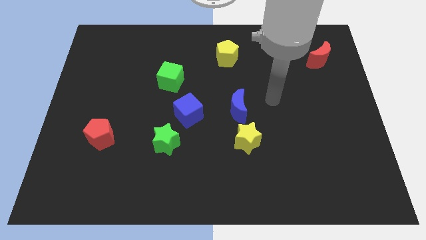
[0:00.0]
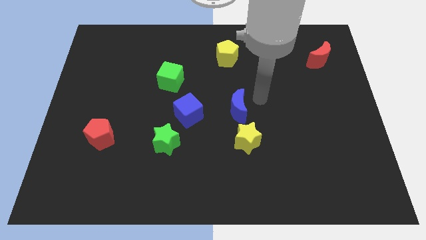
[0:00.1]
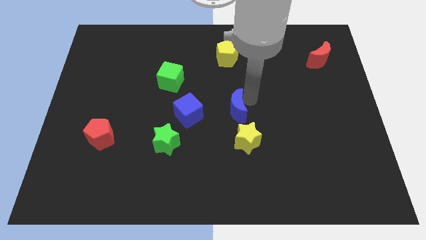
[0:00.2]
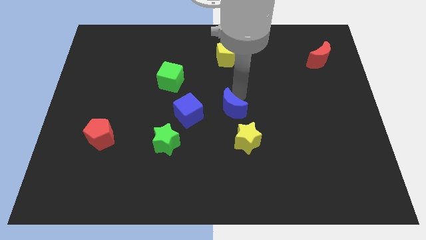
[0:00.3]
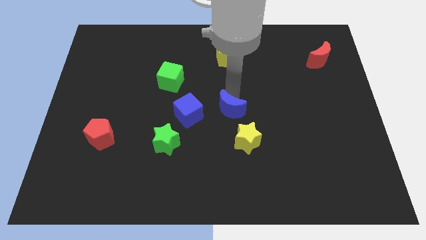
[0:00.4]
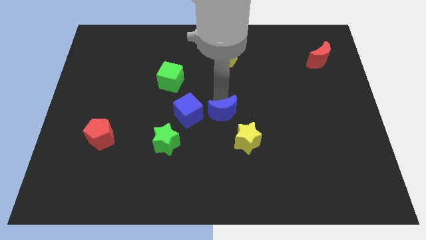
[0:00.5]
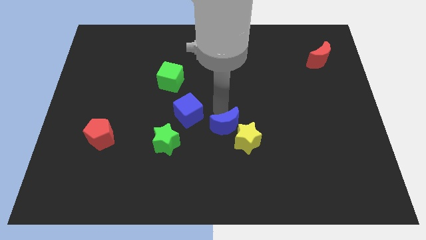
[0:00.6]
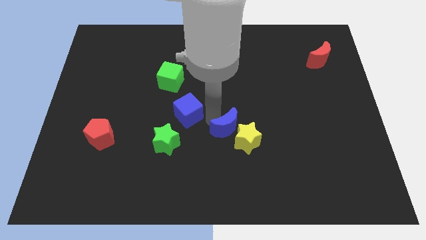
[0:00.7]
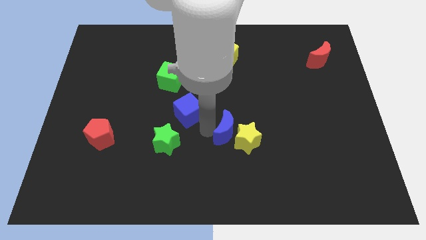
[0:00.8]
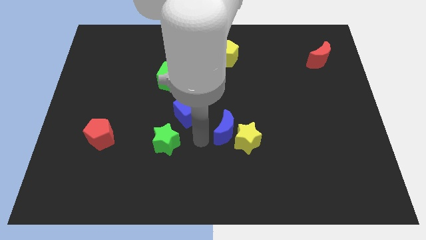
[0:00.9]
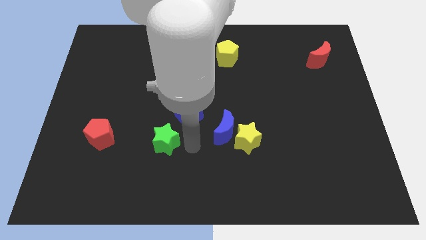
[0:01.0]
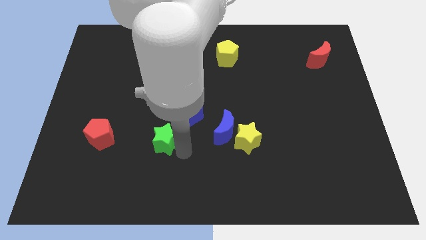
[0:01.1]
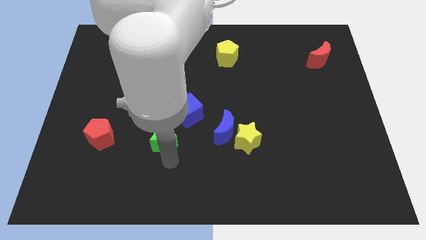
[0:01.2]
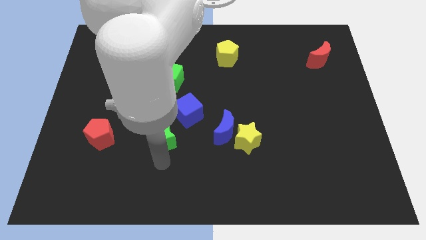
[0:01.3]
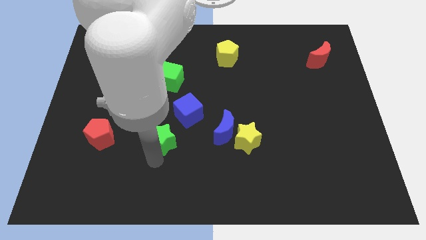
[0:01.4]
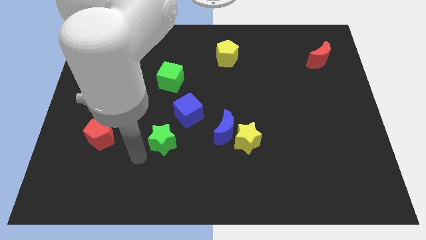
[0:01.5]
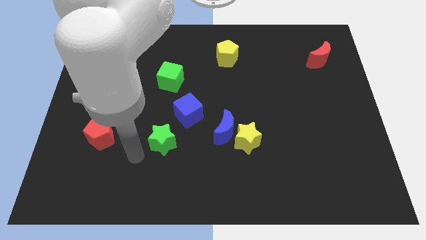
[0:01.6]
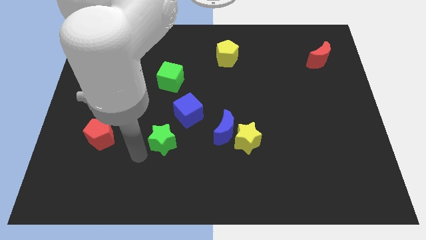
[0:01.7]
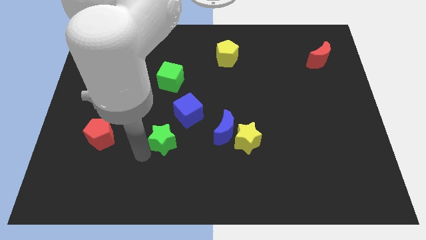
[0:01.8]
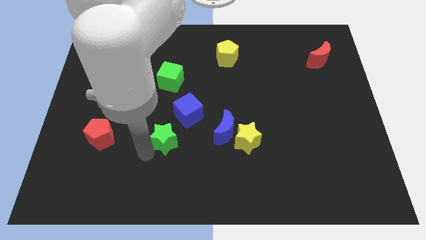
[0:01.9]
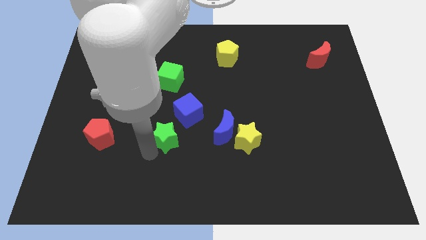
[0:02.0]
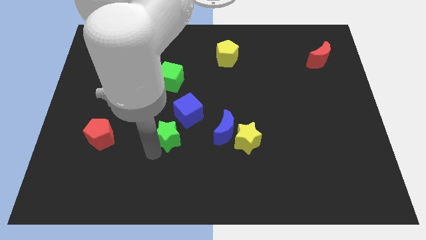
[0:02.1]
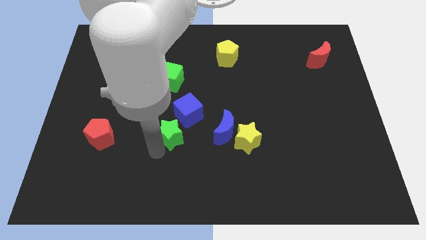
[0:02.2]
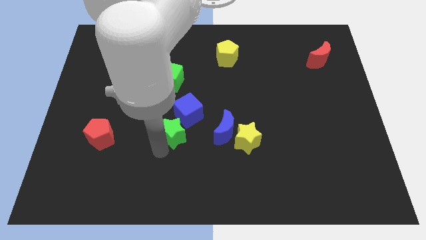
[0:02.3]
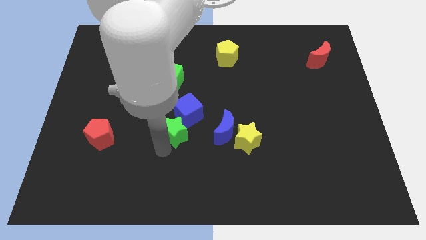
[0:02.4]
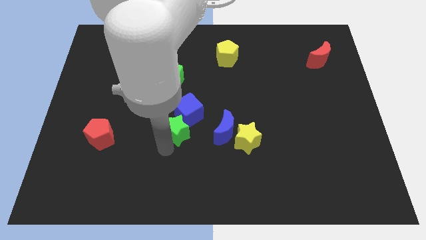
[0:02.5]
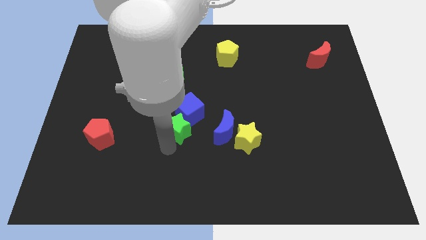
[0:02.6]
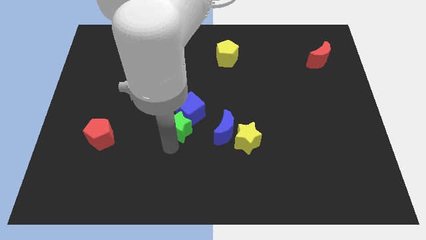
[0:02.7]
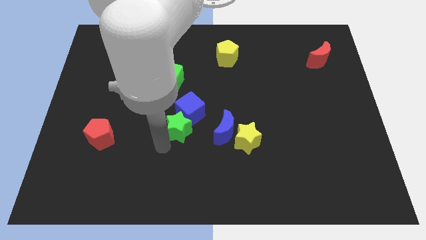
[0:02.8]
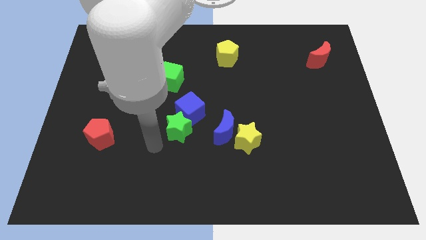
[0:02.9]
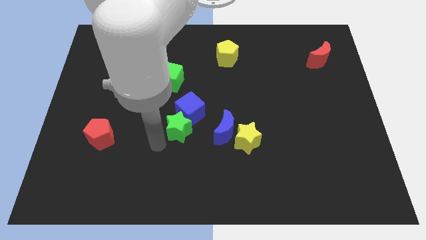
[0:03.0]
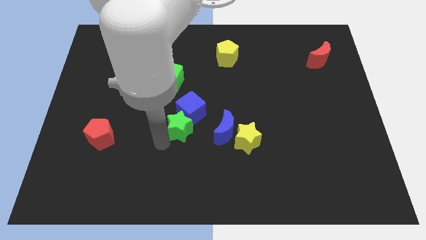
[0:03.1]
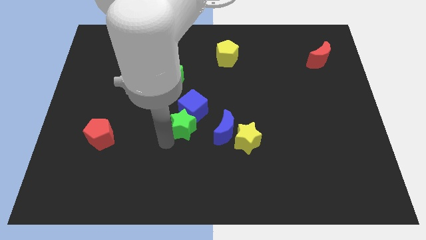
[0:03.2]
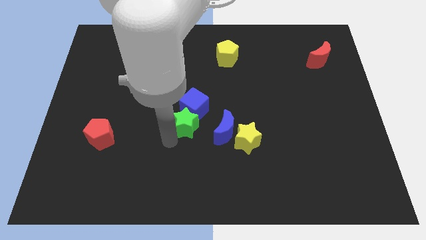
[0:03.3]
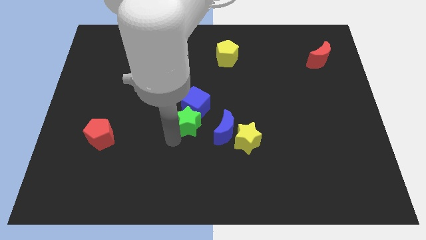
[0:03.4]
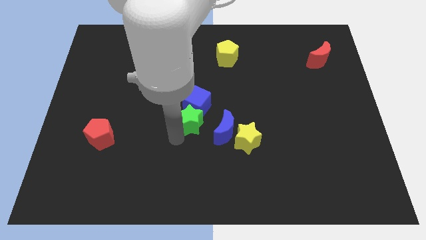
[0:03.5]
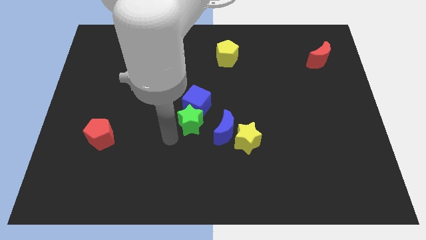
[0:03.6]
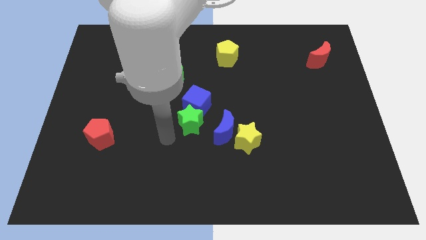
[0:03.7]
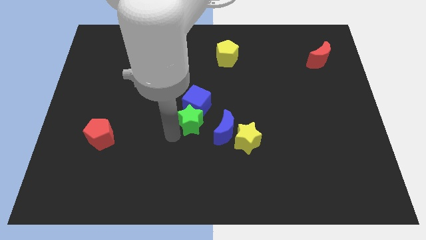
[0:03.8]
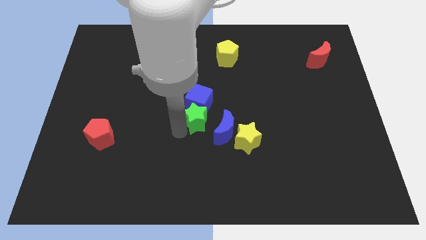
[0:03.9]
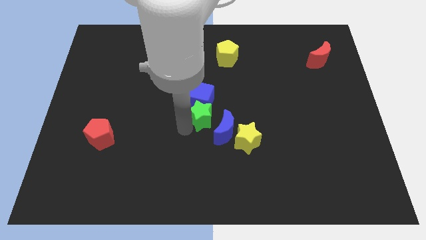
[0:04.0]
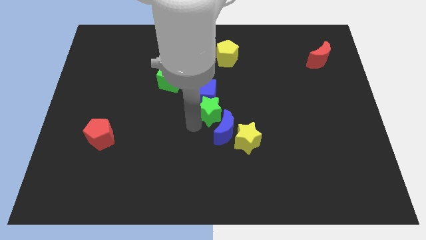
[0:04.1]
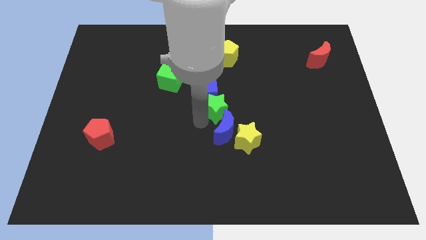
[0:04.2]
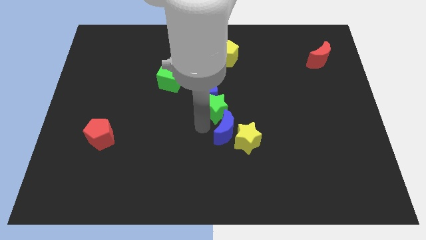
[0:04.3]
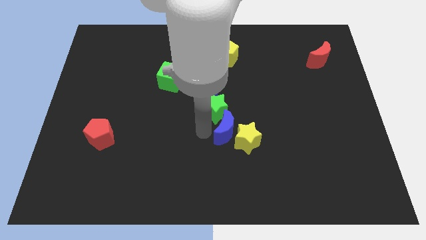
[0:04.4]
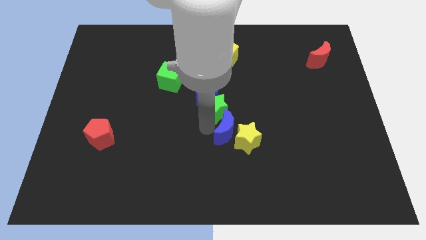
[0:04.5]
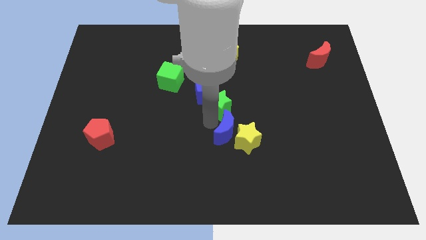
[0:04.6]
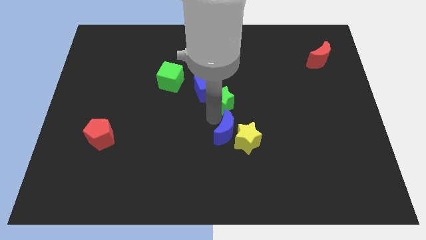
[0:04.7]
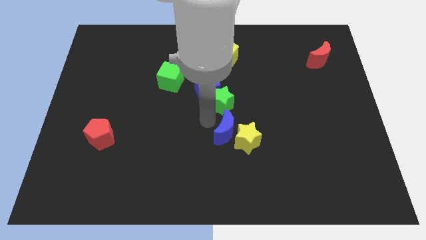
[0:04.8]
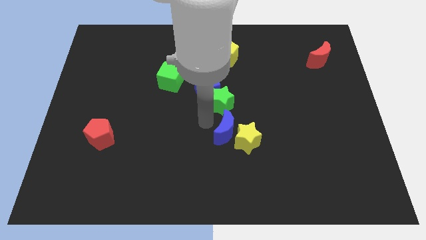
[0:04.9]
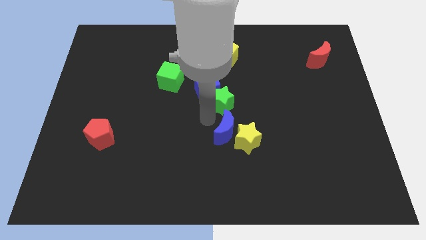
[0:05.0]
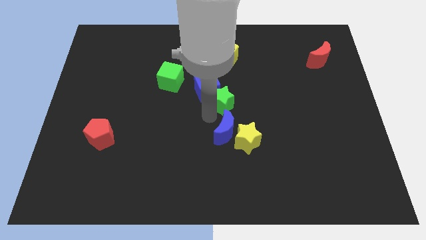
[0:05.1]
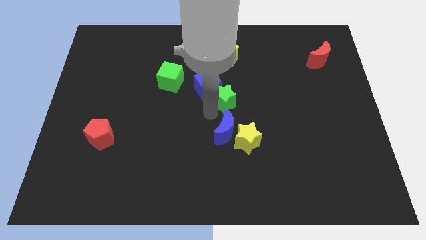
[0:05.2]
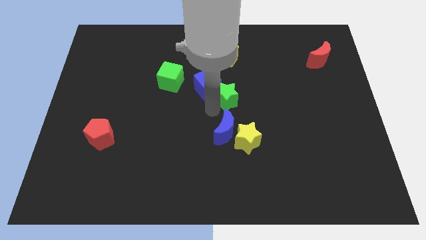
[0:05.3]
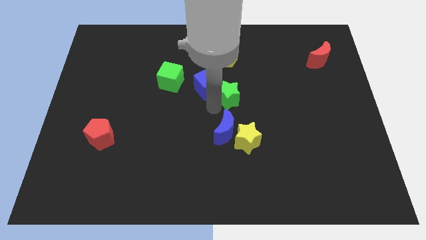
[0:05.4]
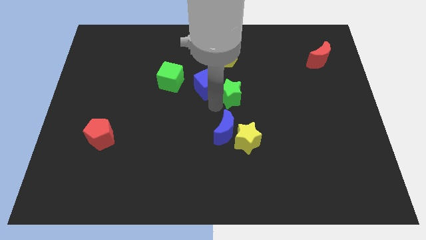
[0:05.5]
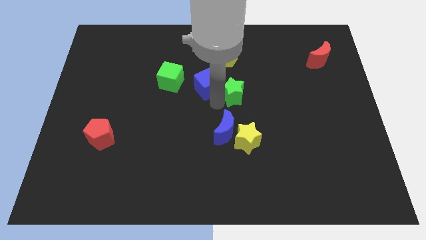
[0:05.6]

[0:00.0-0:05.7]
slide the green star up and then to the right

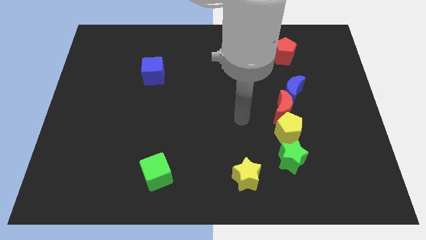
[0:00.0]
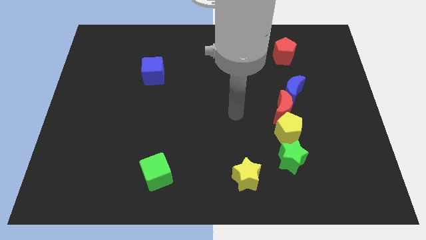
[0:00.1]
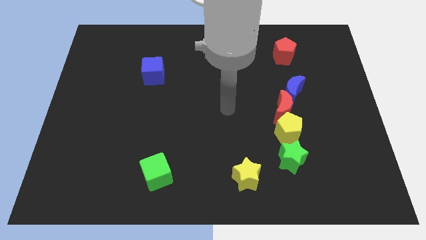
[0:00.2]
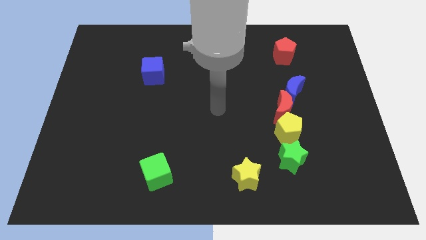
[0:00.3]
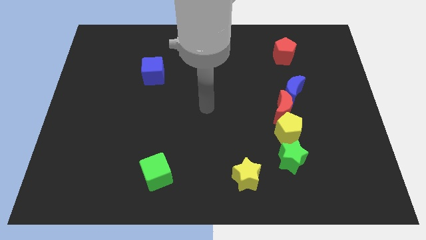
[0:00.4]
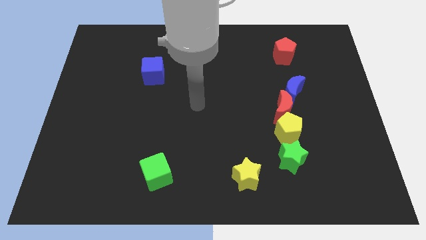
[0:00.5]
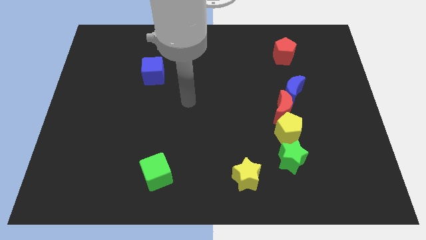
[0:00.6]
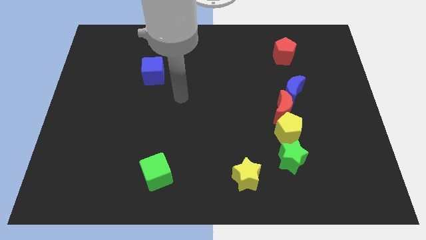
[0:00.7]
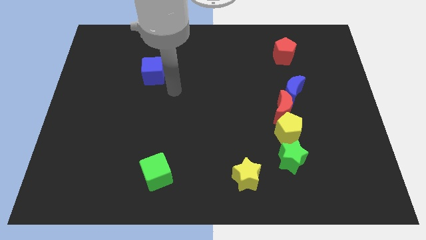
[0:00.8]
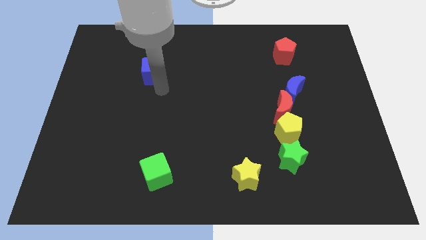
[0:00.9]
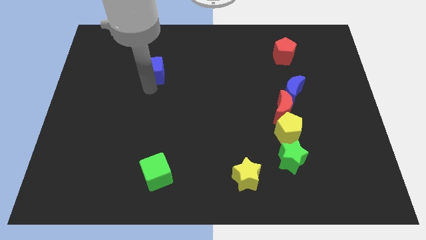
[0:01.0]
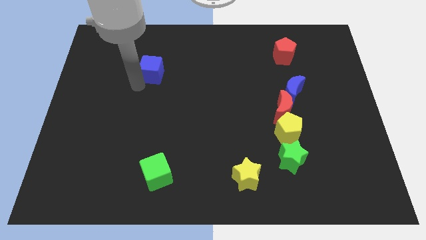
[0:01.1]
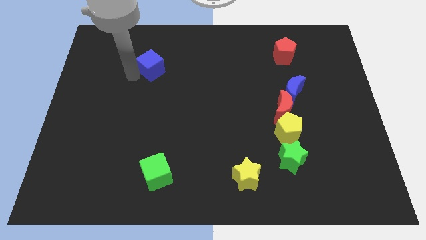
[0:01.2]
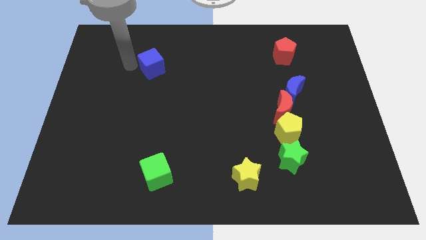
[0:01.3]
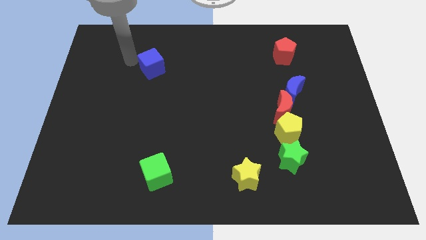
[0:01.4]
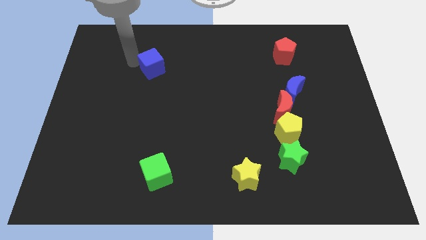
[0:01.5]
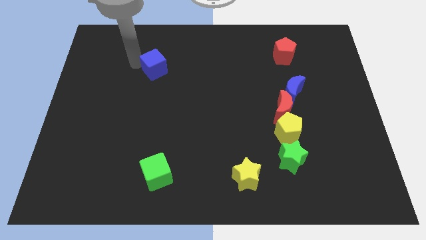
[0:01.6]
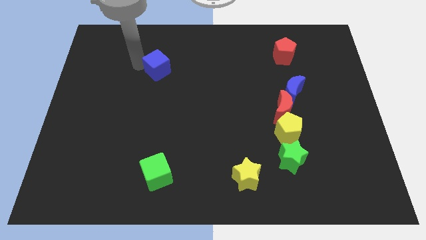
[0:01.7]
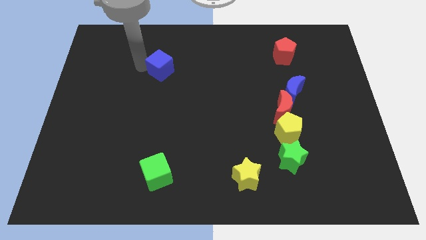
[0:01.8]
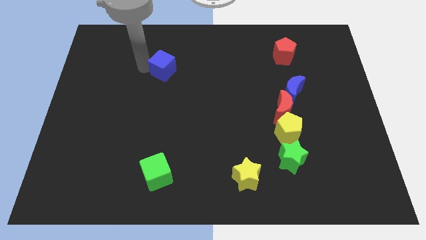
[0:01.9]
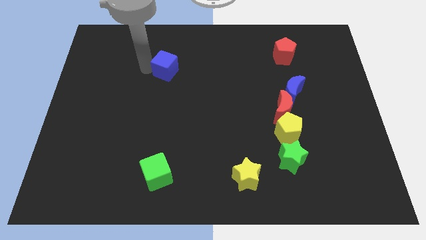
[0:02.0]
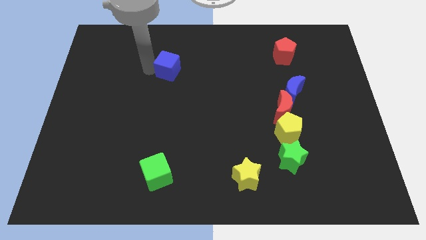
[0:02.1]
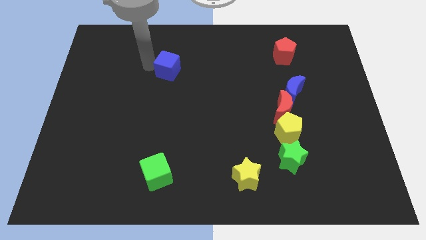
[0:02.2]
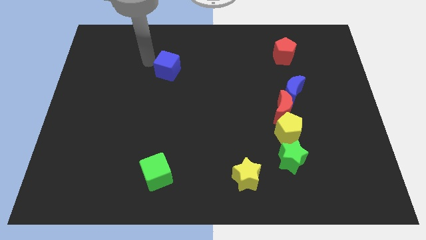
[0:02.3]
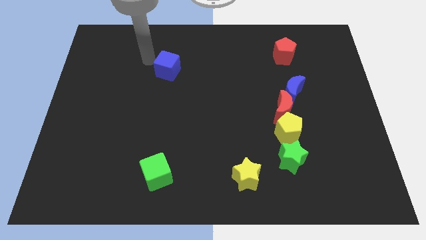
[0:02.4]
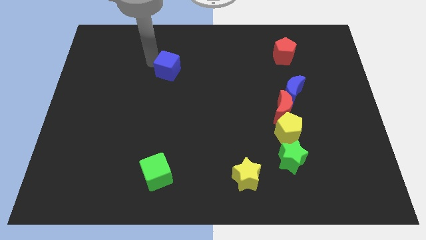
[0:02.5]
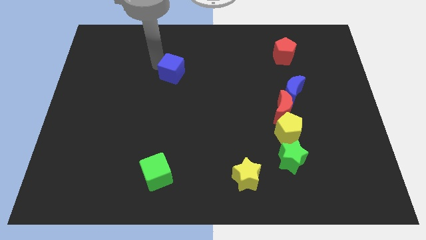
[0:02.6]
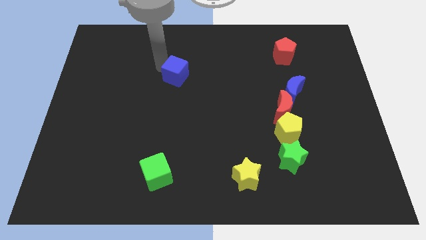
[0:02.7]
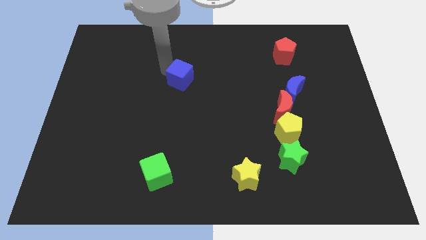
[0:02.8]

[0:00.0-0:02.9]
slightly move the blue cube to the right
